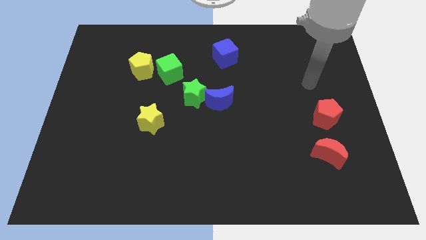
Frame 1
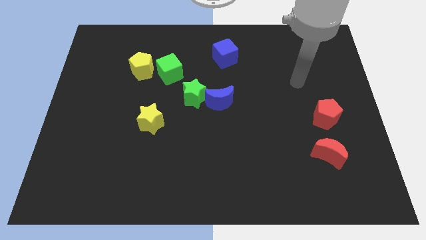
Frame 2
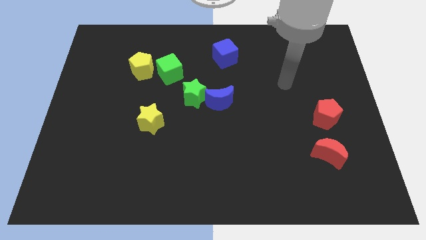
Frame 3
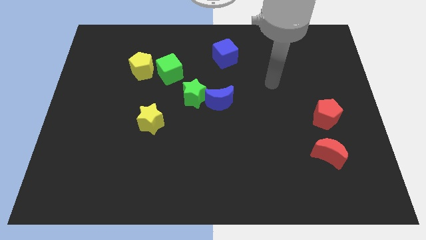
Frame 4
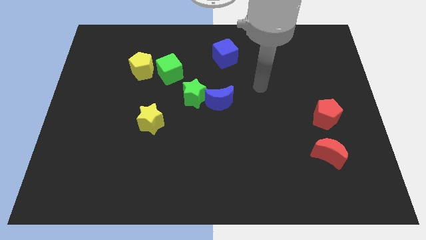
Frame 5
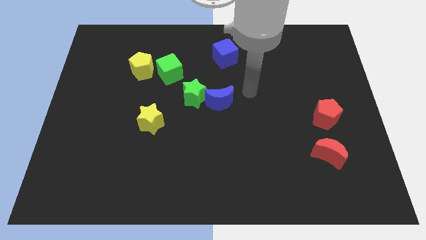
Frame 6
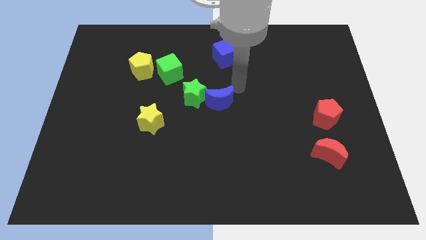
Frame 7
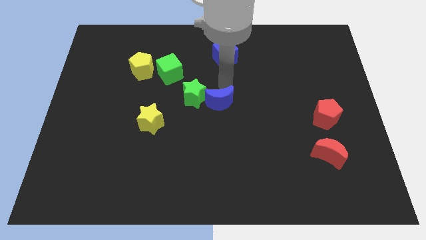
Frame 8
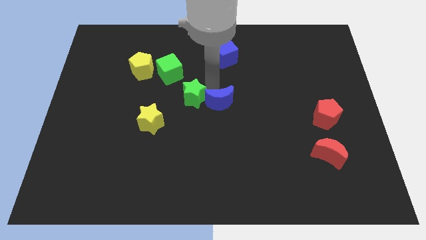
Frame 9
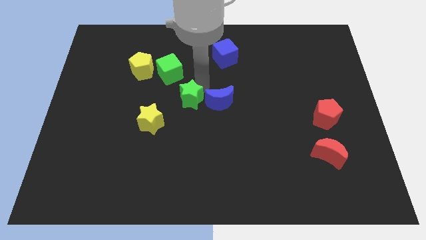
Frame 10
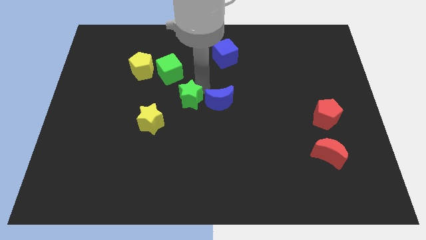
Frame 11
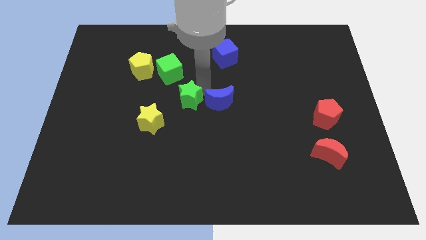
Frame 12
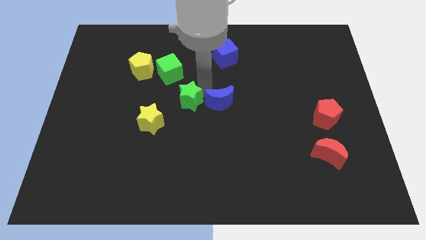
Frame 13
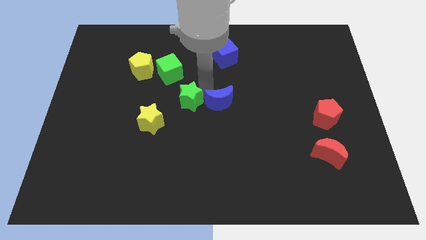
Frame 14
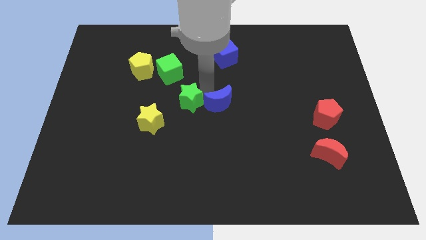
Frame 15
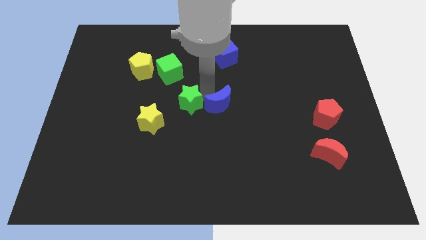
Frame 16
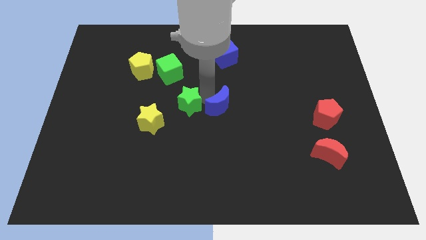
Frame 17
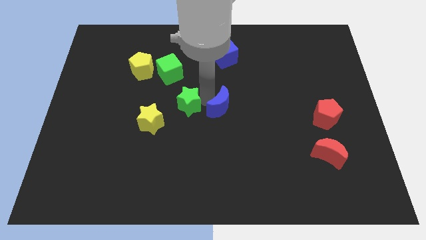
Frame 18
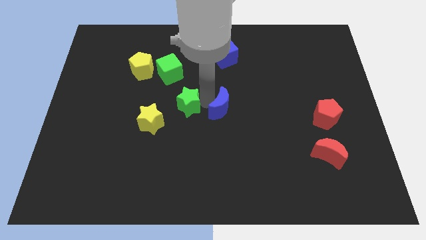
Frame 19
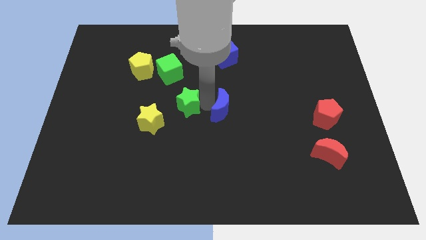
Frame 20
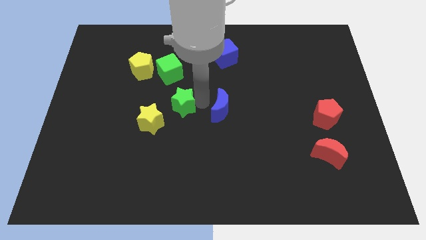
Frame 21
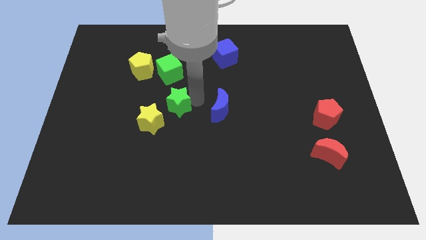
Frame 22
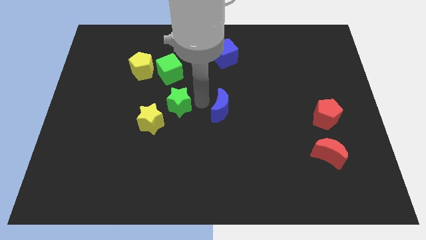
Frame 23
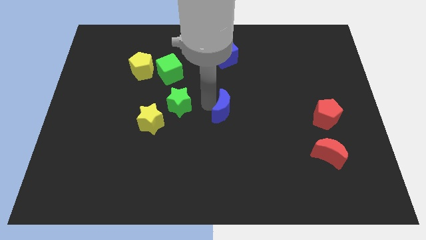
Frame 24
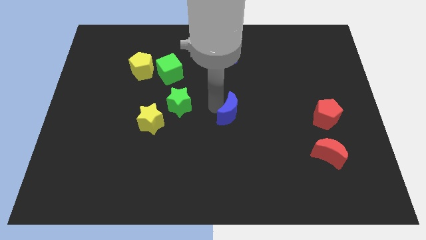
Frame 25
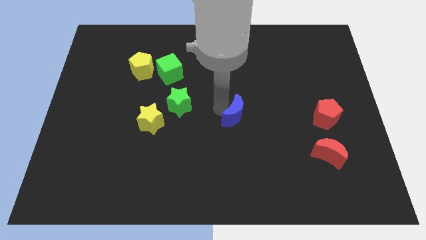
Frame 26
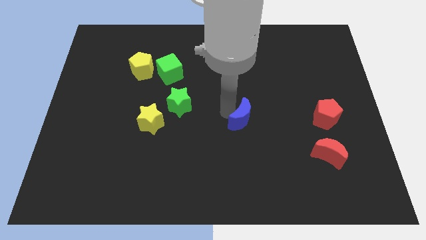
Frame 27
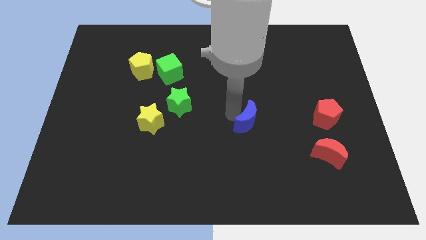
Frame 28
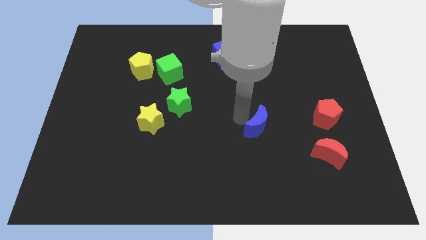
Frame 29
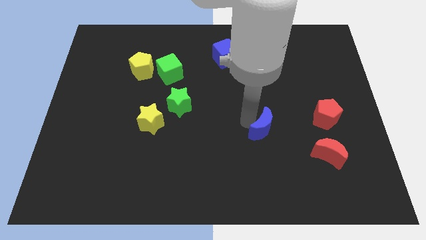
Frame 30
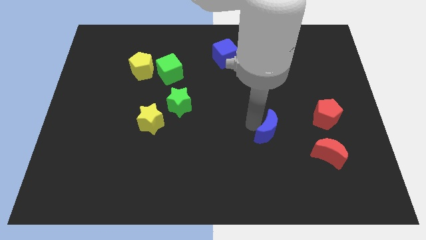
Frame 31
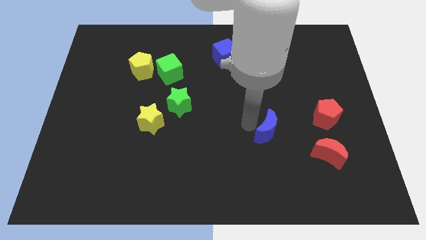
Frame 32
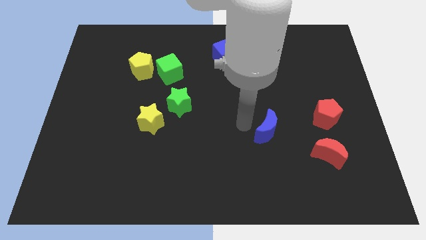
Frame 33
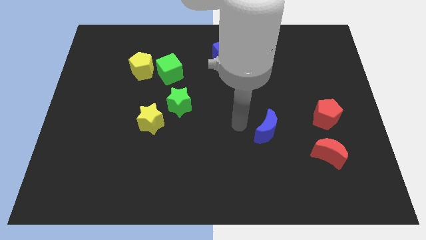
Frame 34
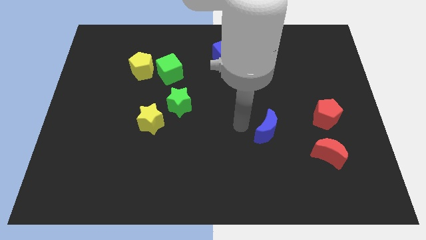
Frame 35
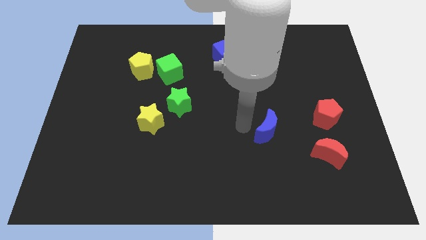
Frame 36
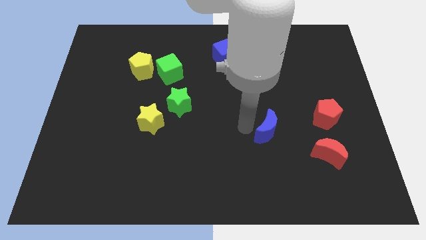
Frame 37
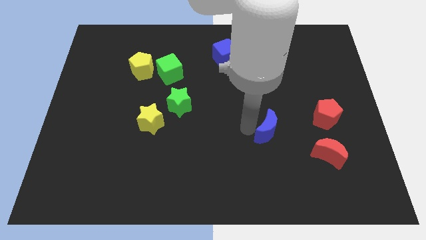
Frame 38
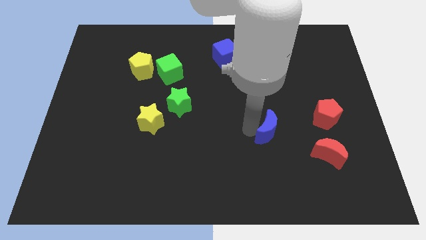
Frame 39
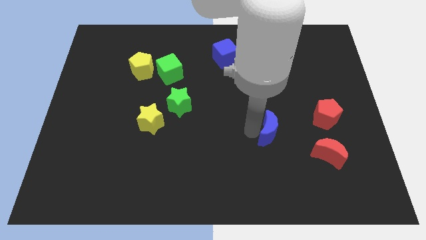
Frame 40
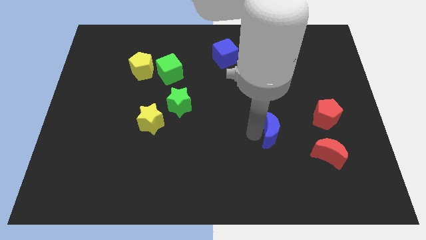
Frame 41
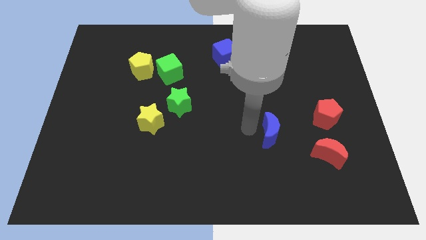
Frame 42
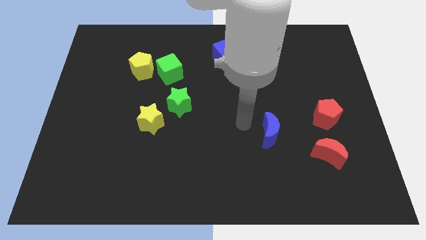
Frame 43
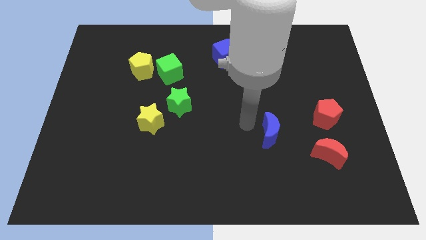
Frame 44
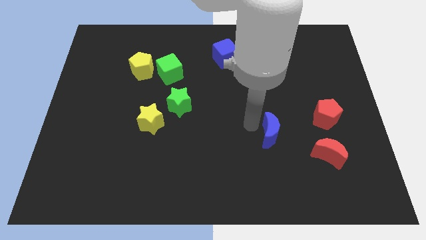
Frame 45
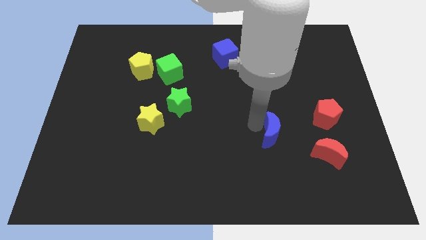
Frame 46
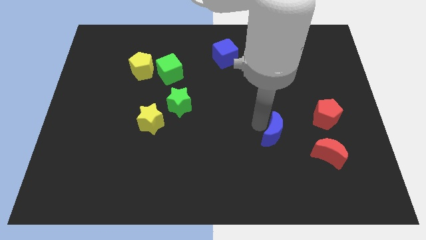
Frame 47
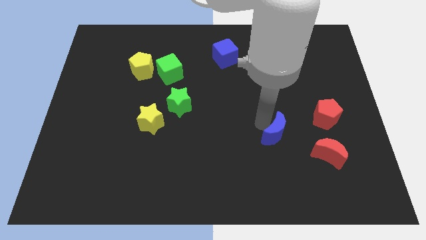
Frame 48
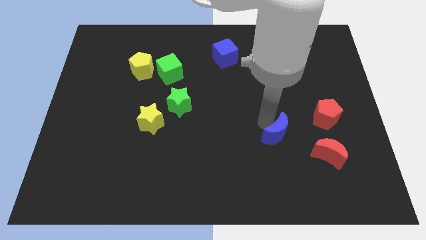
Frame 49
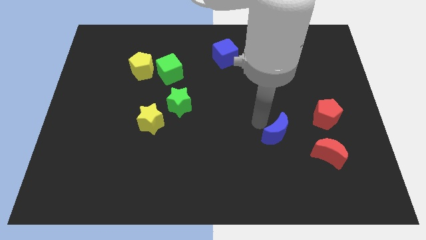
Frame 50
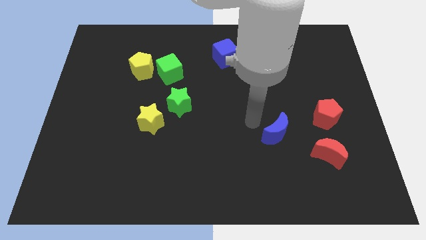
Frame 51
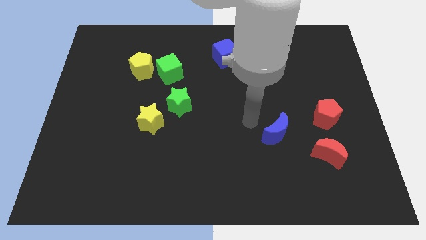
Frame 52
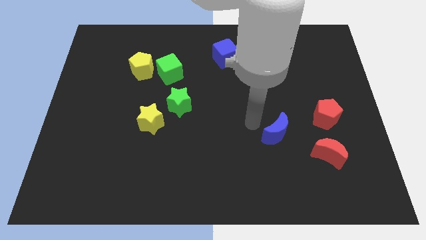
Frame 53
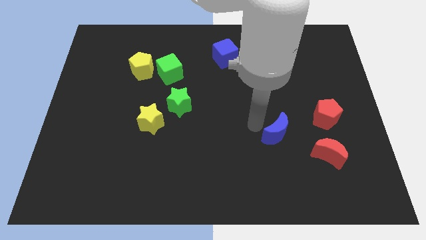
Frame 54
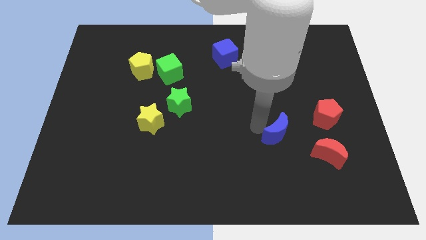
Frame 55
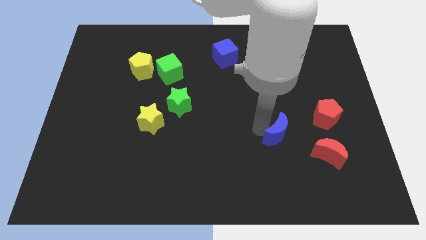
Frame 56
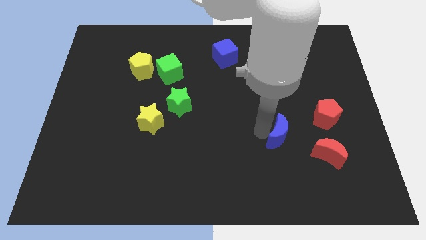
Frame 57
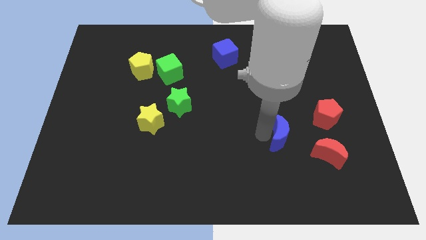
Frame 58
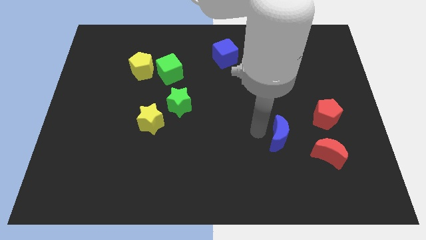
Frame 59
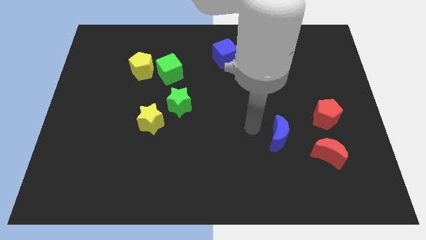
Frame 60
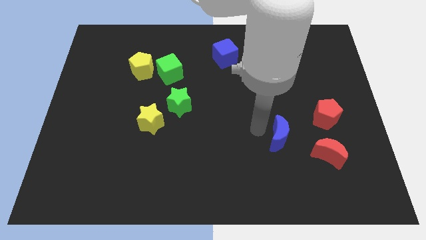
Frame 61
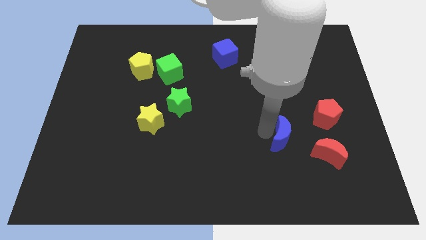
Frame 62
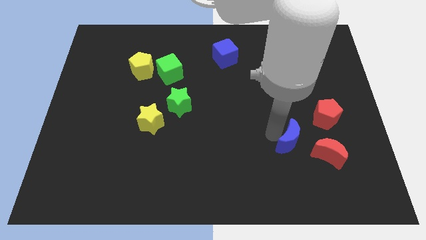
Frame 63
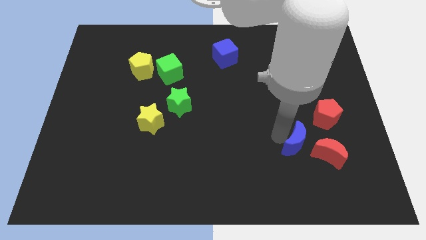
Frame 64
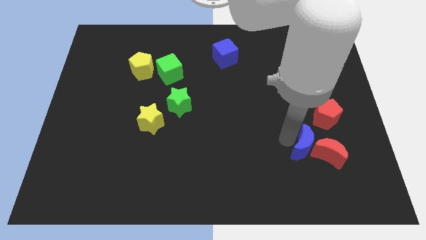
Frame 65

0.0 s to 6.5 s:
put the blue moon next to the red moon

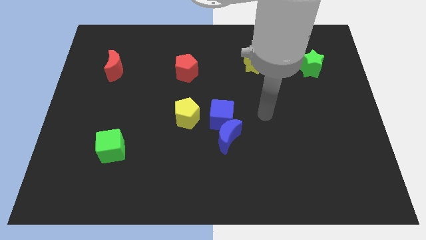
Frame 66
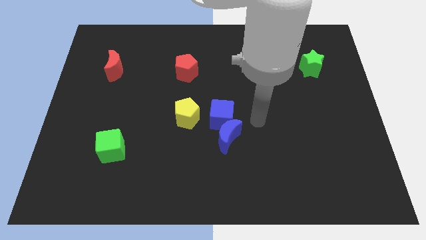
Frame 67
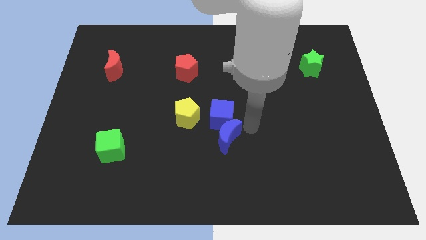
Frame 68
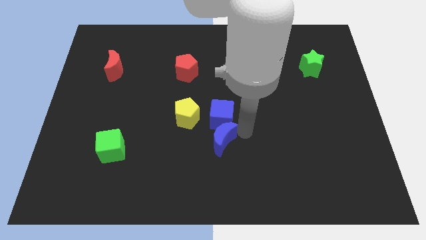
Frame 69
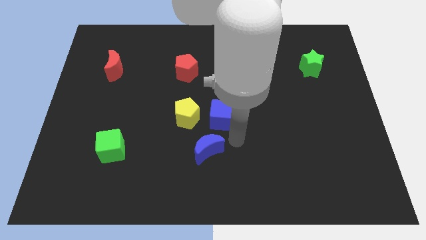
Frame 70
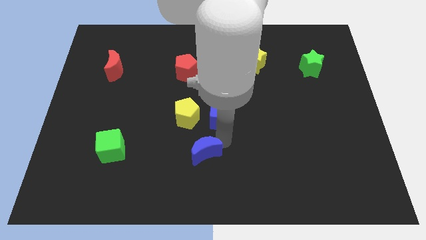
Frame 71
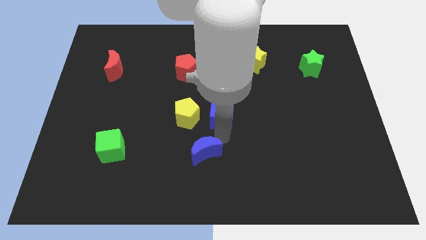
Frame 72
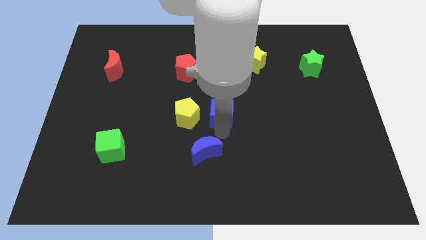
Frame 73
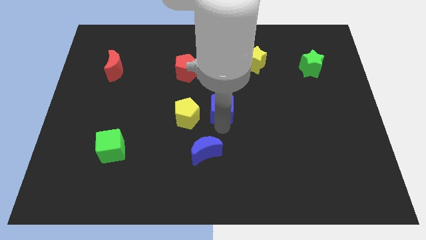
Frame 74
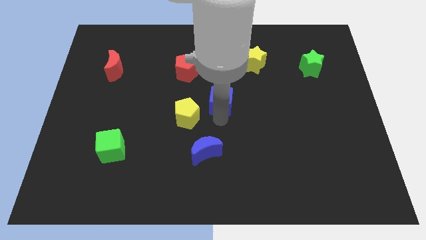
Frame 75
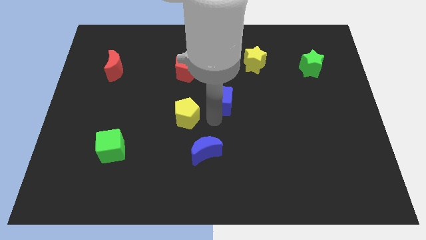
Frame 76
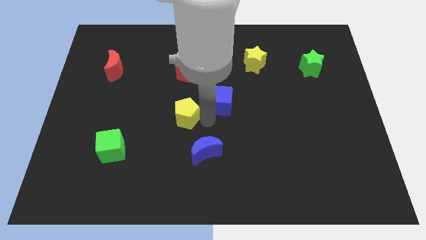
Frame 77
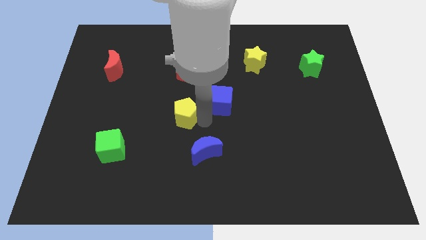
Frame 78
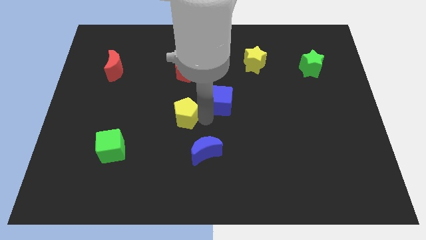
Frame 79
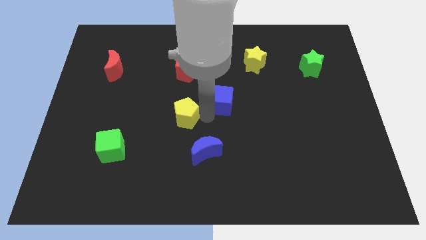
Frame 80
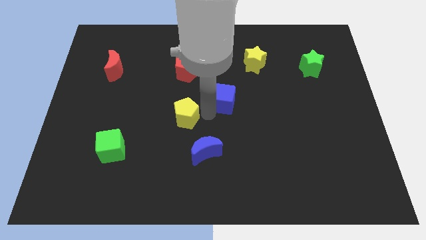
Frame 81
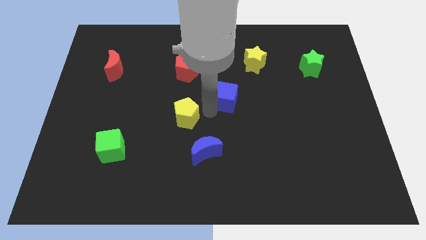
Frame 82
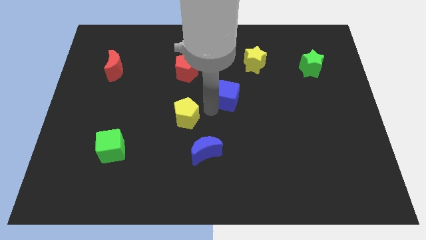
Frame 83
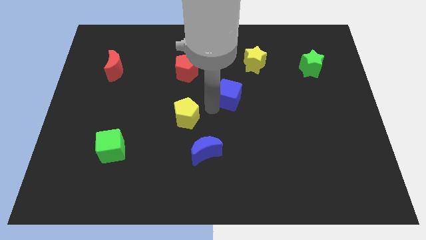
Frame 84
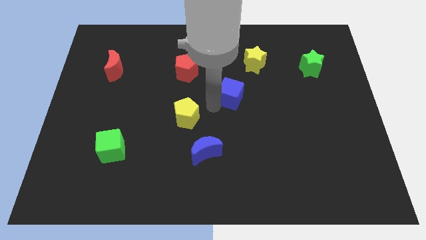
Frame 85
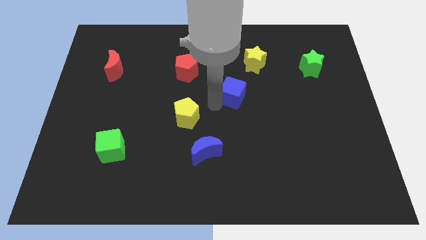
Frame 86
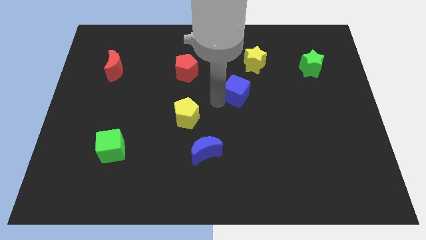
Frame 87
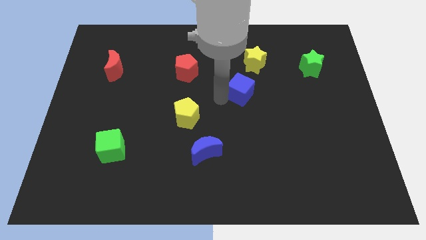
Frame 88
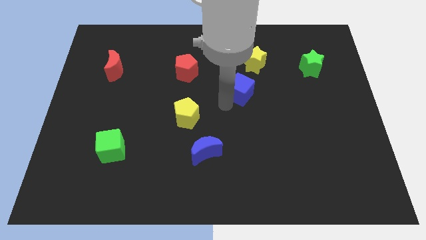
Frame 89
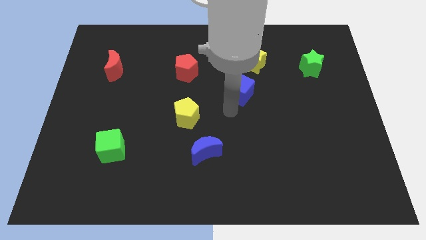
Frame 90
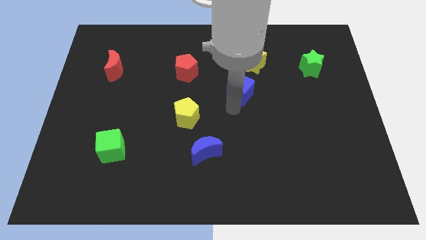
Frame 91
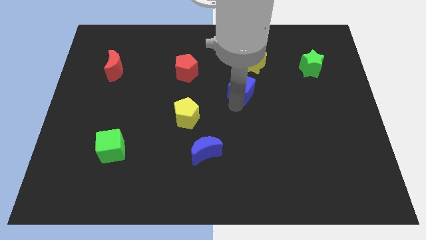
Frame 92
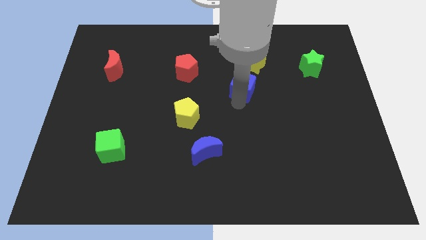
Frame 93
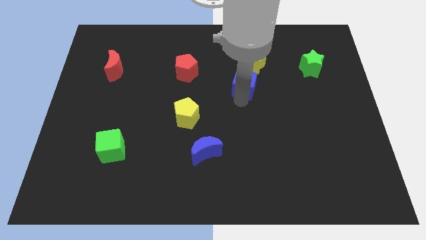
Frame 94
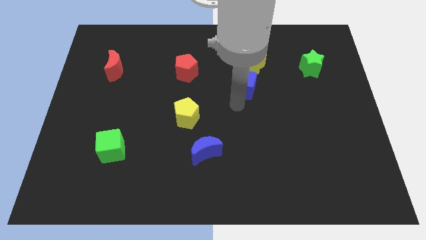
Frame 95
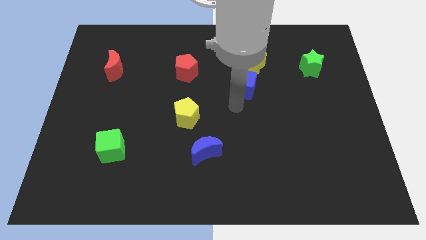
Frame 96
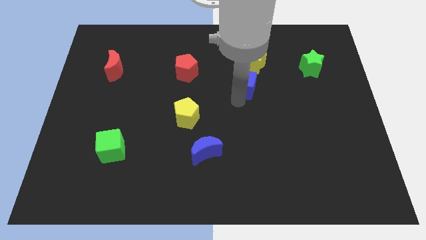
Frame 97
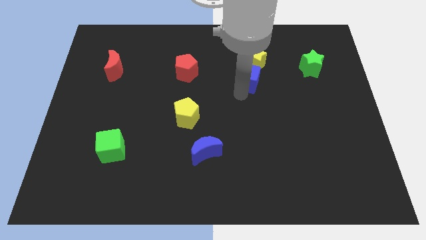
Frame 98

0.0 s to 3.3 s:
push the blue cube close to the yellow star
